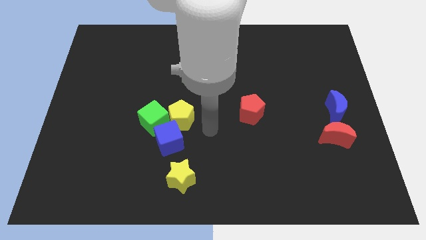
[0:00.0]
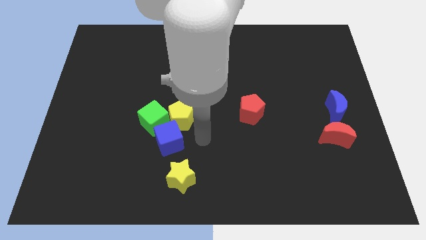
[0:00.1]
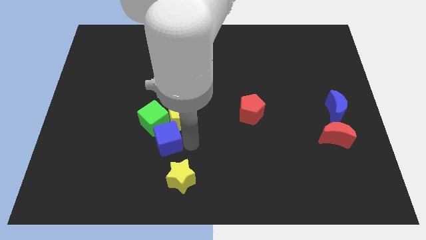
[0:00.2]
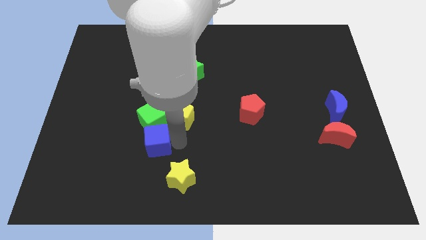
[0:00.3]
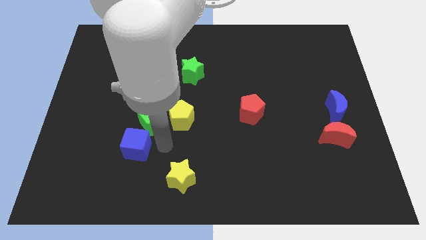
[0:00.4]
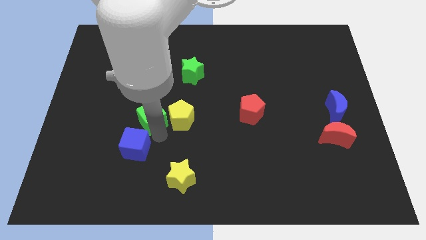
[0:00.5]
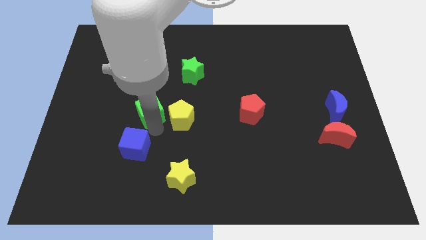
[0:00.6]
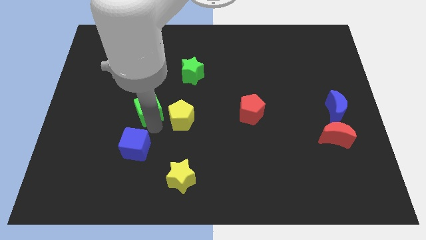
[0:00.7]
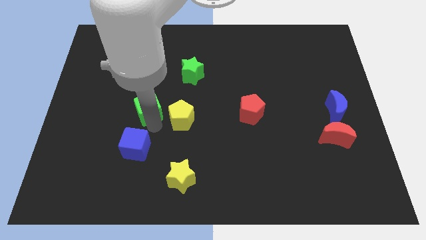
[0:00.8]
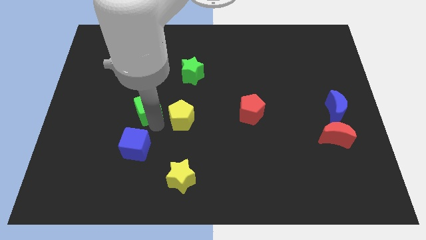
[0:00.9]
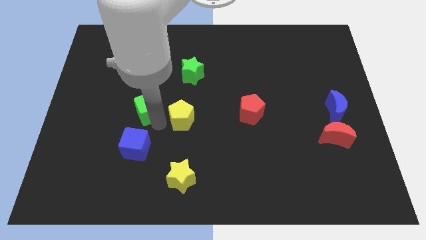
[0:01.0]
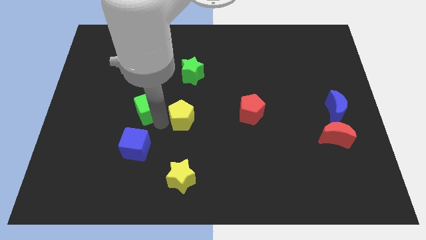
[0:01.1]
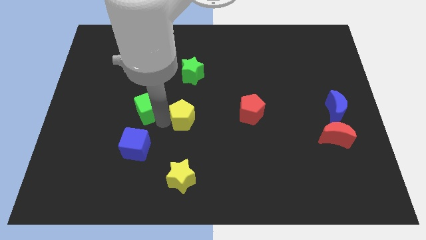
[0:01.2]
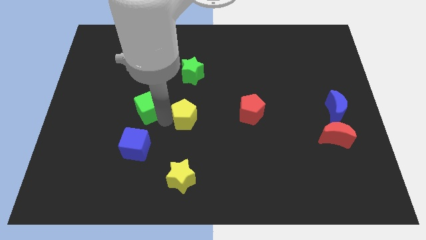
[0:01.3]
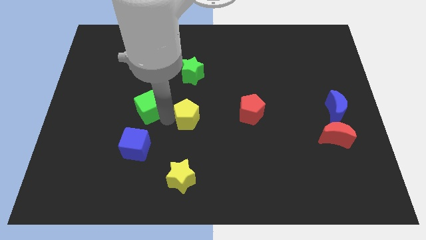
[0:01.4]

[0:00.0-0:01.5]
move the yellow pentagon away from the green cube and blue cube

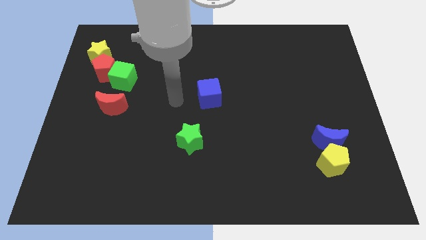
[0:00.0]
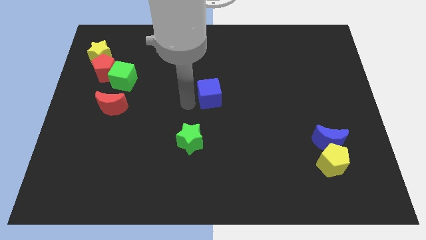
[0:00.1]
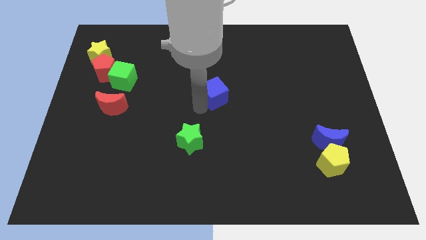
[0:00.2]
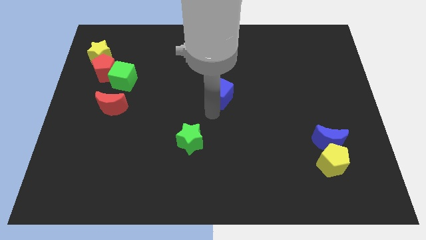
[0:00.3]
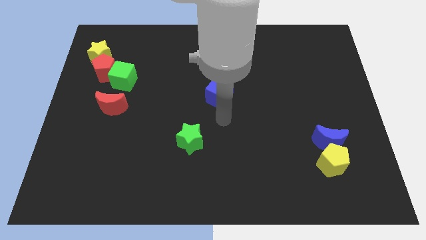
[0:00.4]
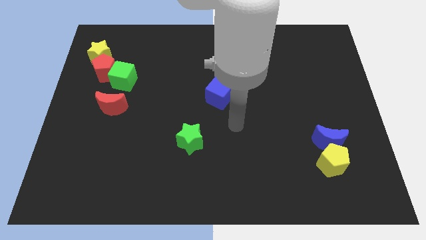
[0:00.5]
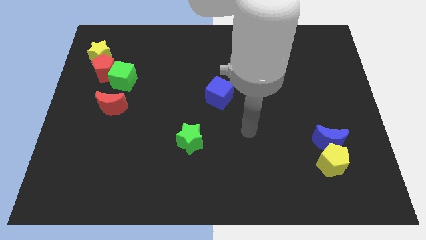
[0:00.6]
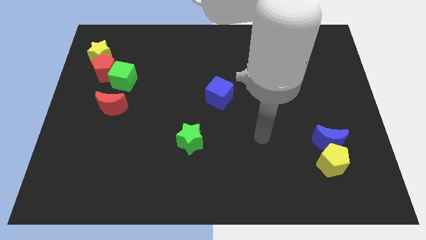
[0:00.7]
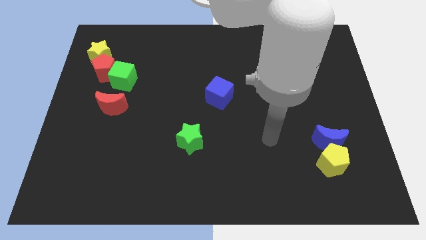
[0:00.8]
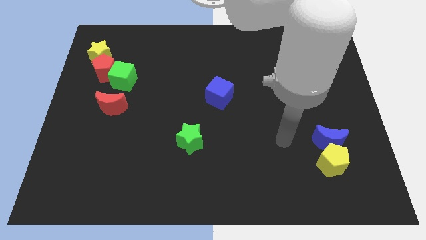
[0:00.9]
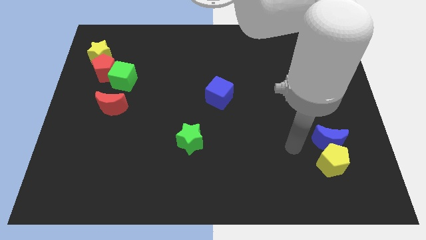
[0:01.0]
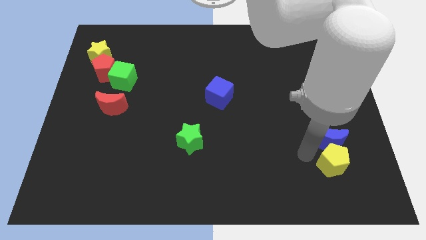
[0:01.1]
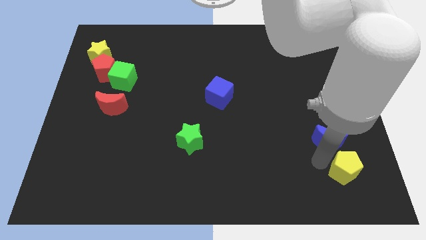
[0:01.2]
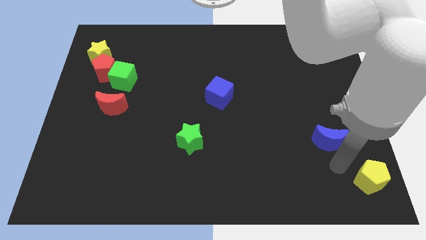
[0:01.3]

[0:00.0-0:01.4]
separate the blue moon from the yellow pentagon

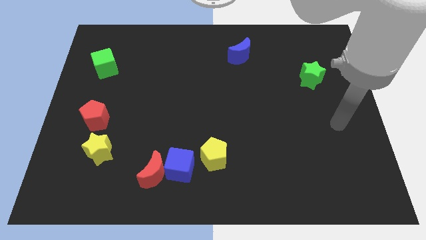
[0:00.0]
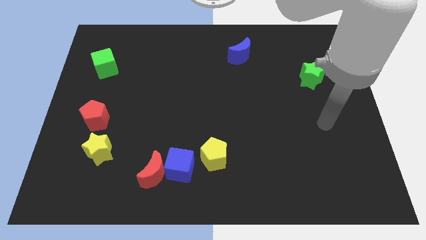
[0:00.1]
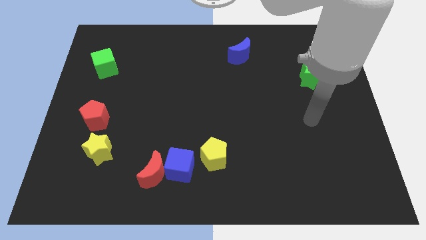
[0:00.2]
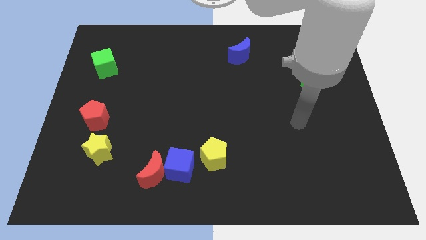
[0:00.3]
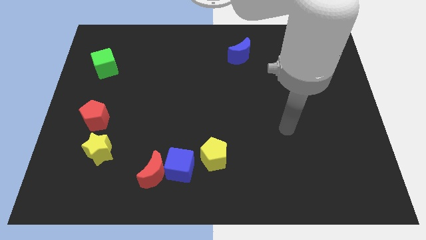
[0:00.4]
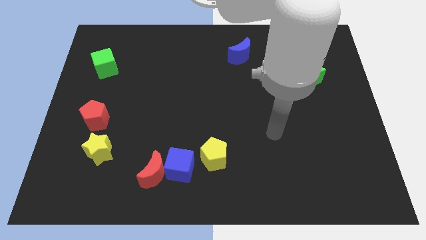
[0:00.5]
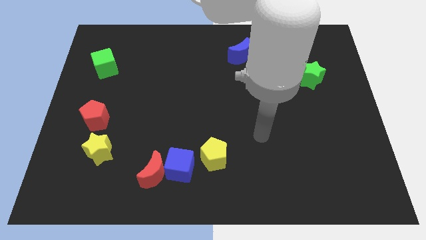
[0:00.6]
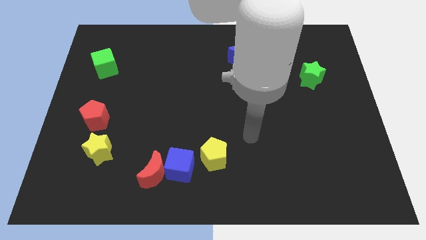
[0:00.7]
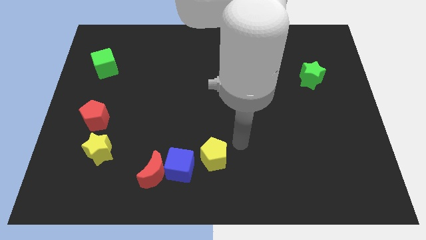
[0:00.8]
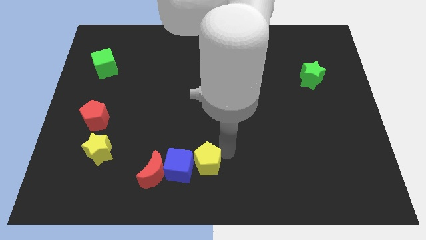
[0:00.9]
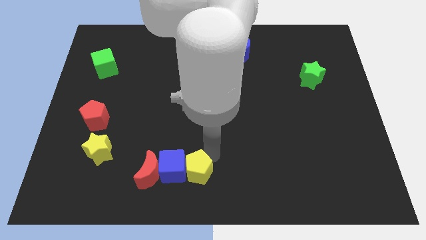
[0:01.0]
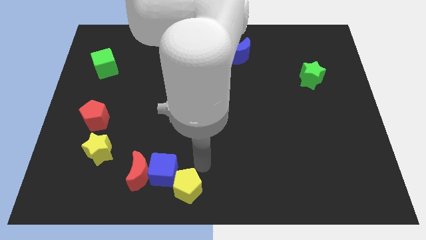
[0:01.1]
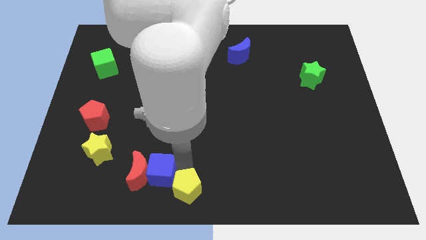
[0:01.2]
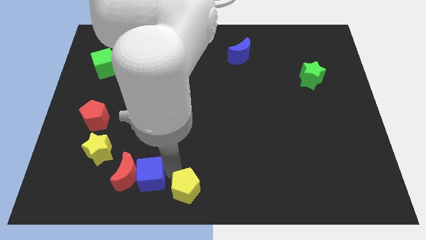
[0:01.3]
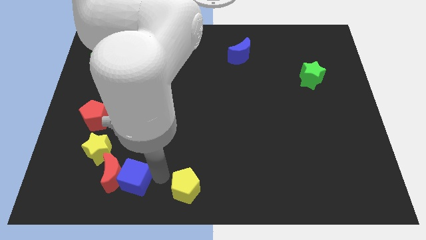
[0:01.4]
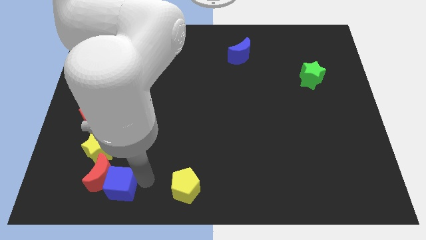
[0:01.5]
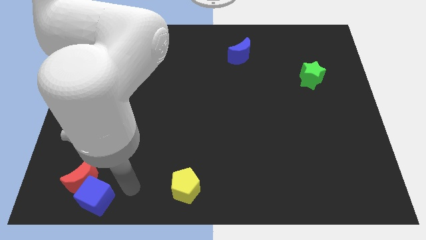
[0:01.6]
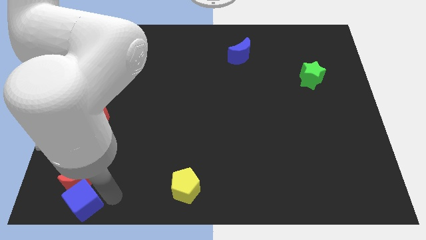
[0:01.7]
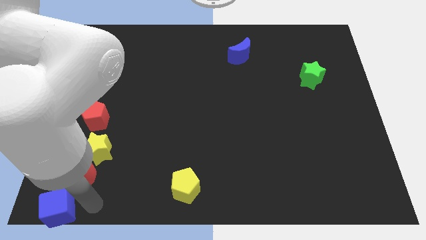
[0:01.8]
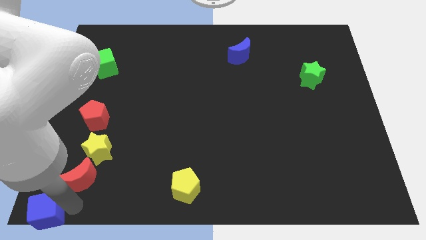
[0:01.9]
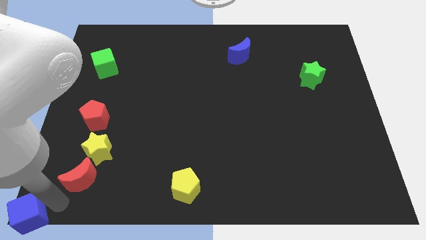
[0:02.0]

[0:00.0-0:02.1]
separate the red moon from the blue cube

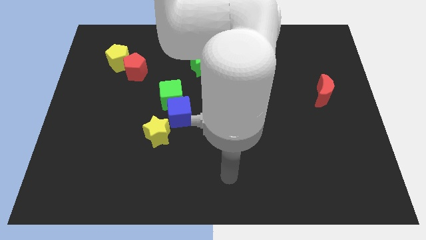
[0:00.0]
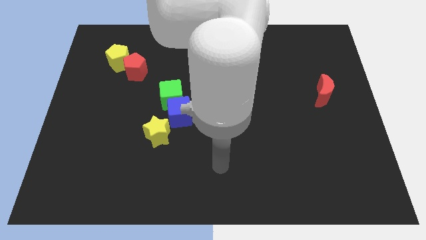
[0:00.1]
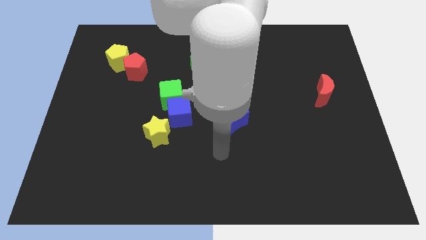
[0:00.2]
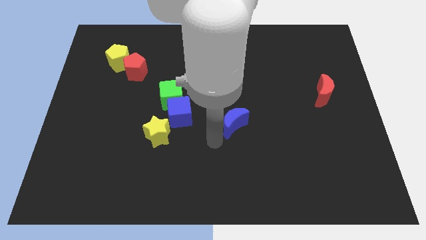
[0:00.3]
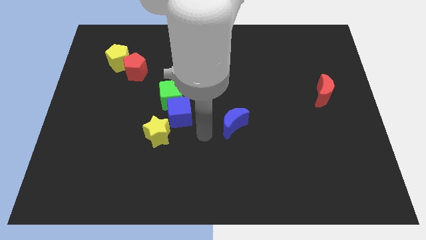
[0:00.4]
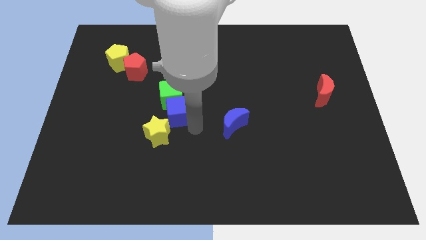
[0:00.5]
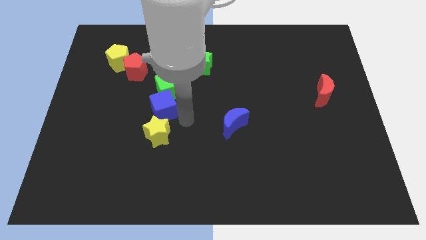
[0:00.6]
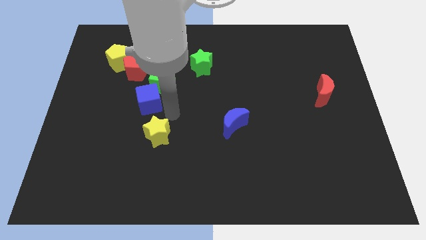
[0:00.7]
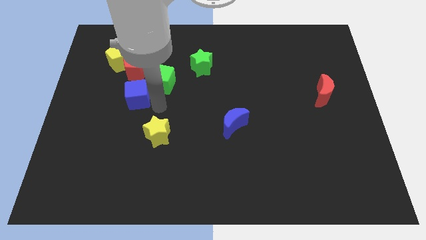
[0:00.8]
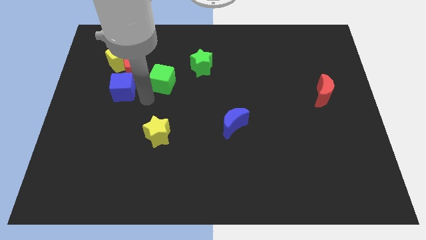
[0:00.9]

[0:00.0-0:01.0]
separate the green cube from the blue cube

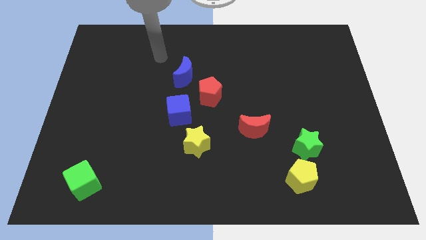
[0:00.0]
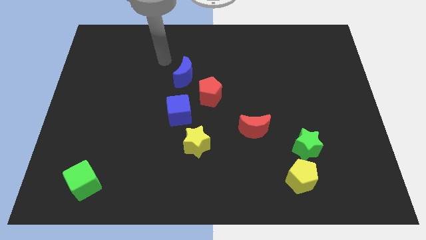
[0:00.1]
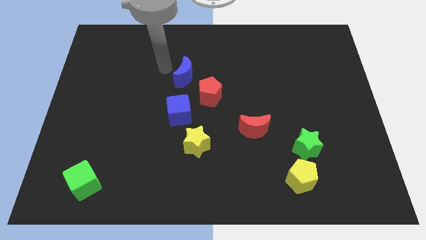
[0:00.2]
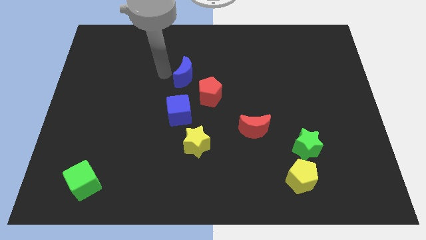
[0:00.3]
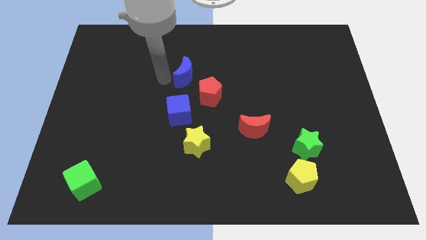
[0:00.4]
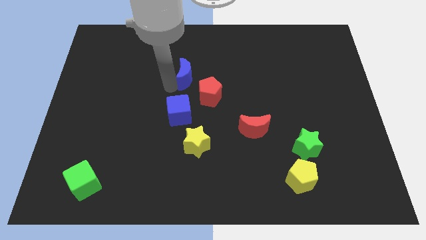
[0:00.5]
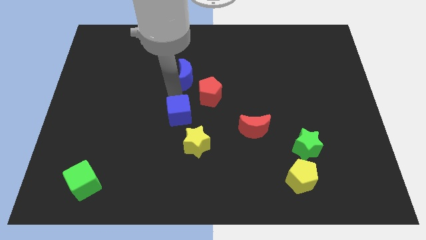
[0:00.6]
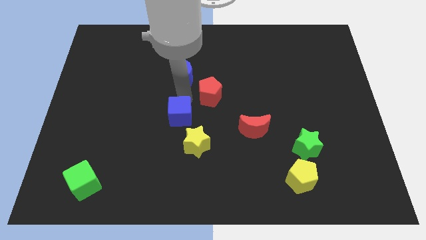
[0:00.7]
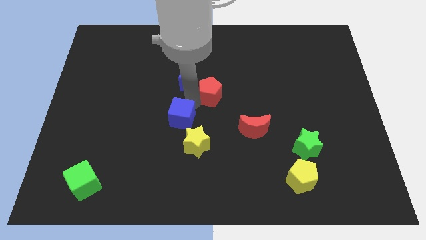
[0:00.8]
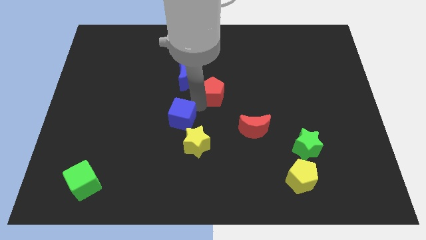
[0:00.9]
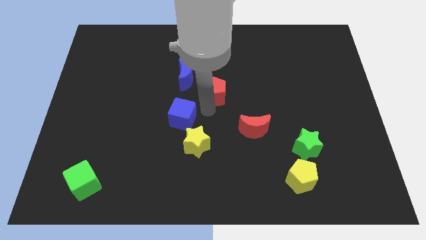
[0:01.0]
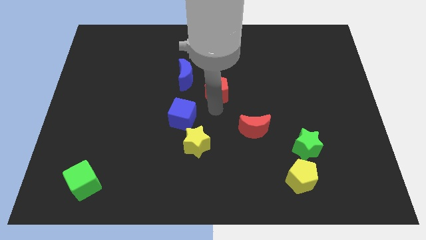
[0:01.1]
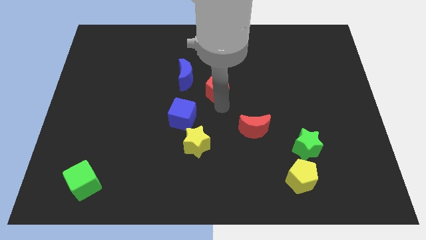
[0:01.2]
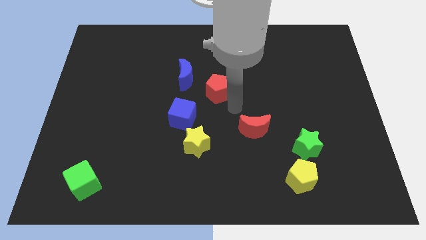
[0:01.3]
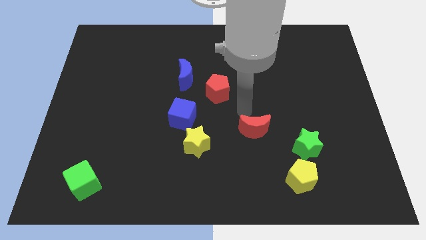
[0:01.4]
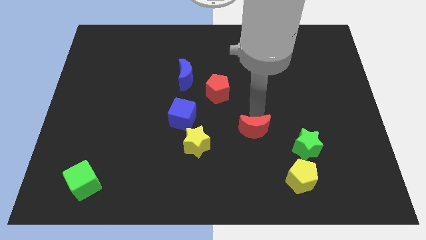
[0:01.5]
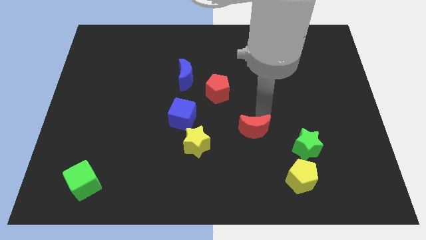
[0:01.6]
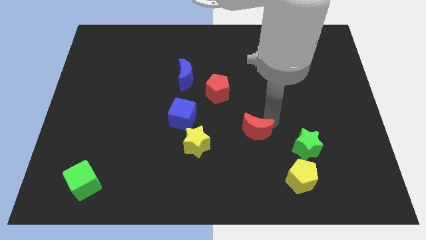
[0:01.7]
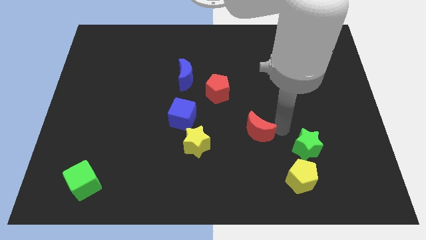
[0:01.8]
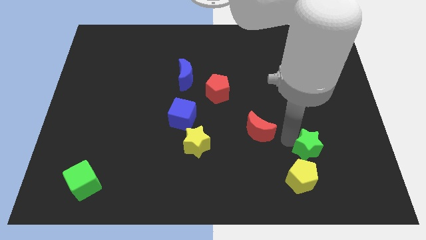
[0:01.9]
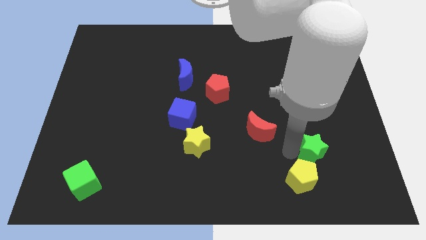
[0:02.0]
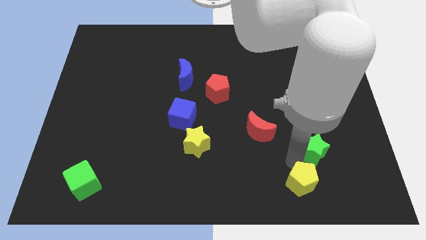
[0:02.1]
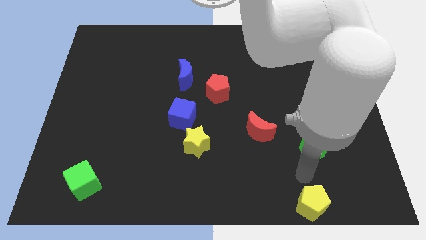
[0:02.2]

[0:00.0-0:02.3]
separate the green star from the yellow pentagon

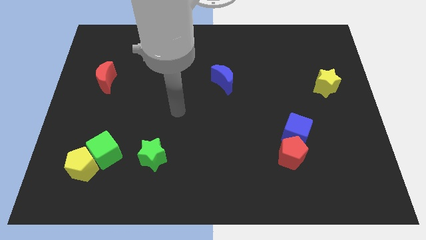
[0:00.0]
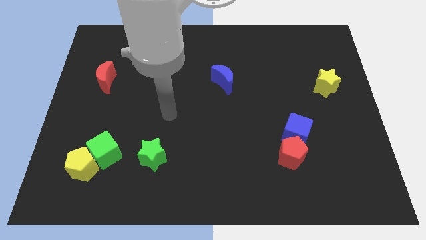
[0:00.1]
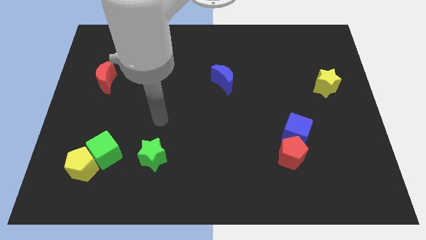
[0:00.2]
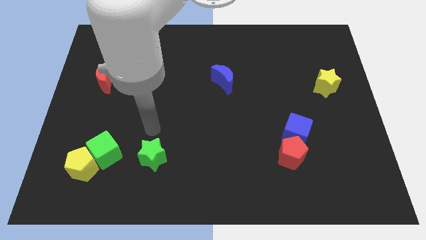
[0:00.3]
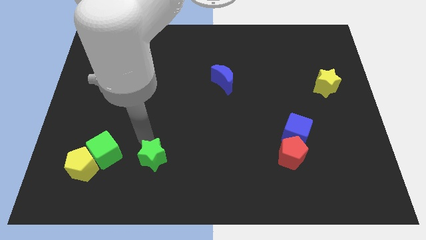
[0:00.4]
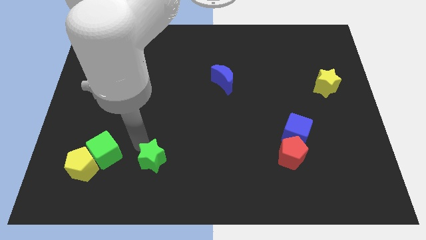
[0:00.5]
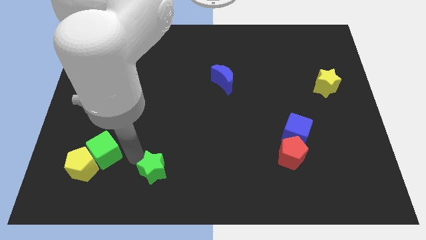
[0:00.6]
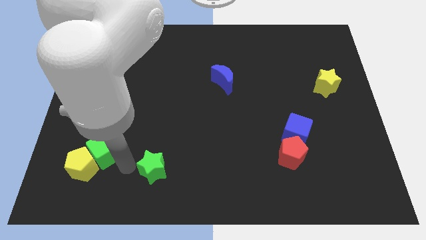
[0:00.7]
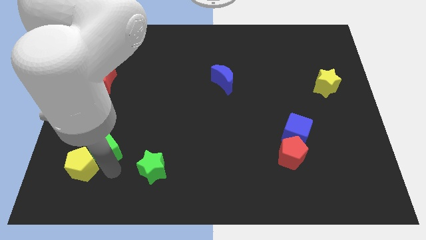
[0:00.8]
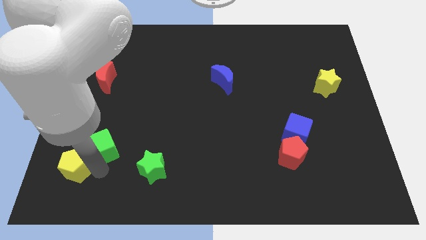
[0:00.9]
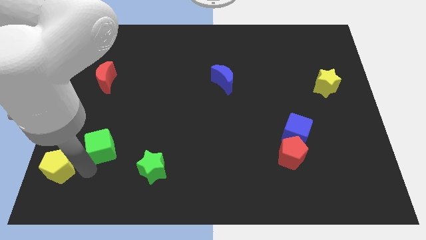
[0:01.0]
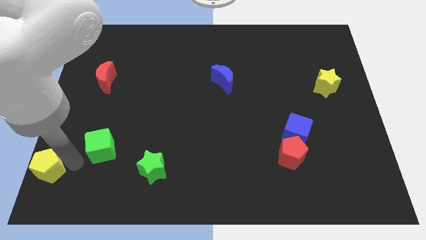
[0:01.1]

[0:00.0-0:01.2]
separate the green cube from the yellow pentagon
